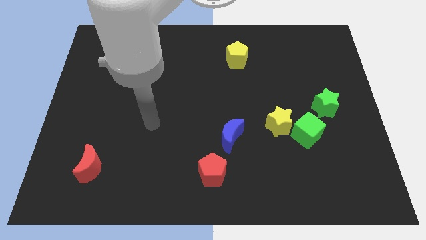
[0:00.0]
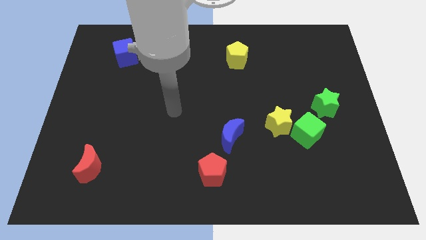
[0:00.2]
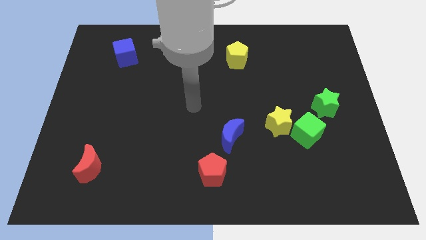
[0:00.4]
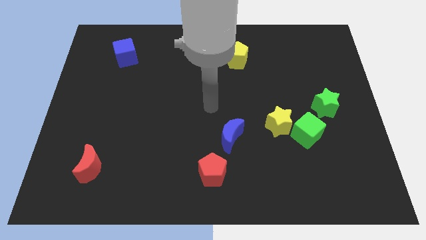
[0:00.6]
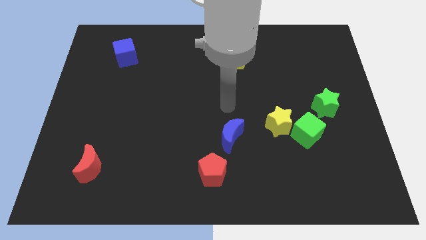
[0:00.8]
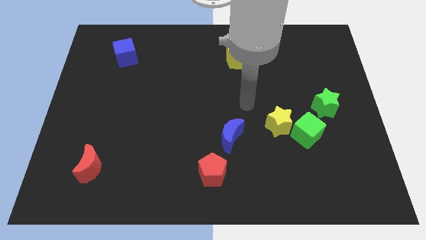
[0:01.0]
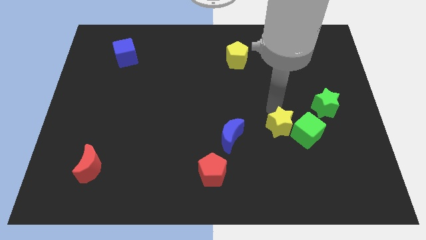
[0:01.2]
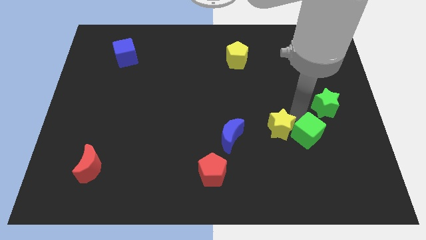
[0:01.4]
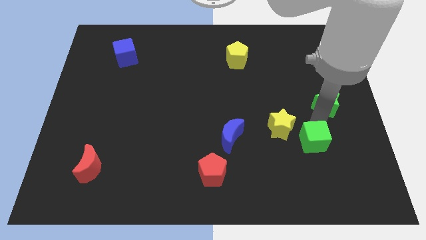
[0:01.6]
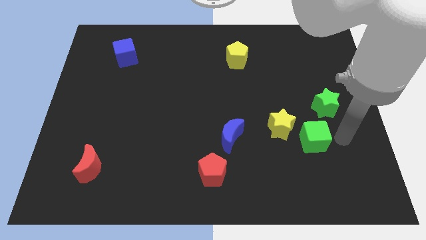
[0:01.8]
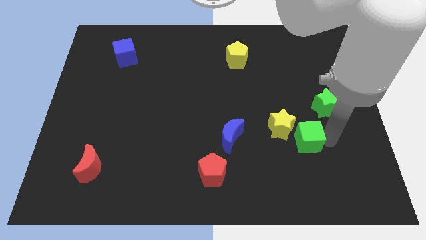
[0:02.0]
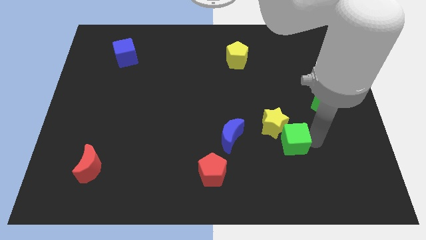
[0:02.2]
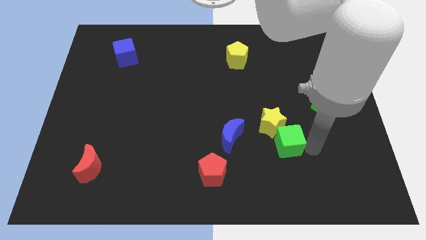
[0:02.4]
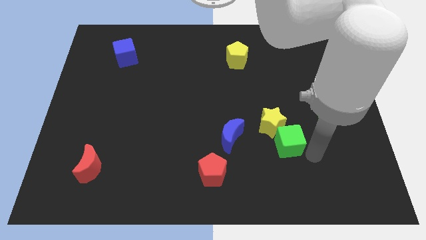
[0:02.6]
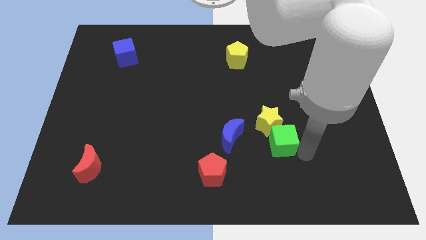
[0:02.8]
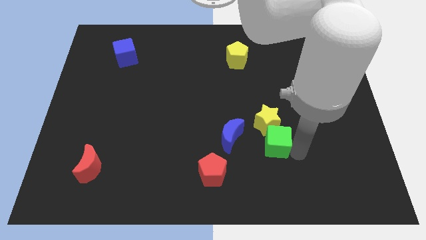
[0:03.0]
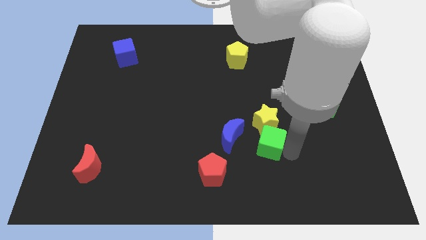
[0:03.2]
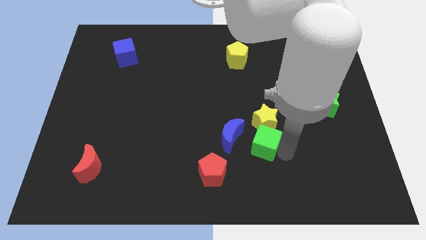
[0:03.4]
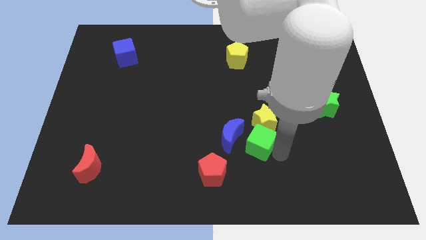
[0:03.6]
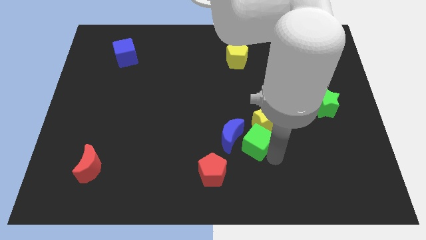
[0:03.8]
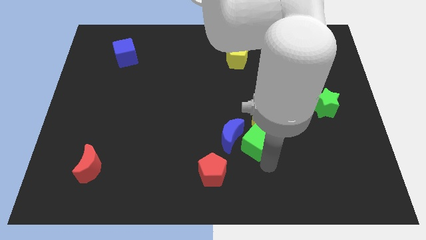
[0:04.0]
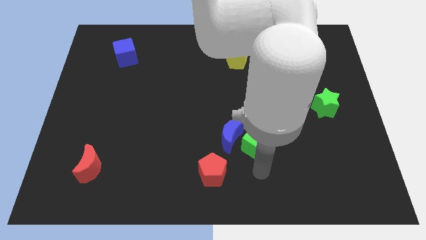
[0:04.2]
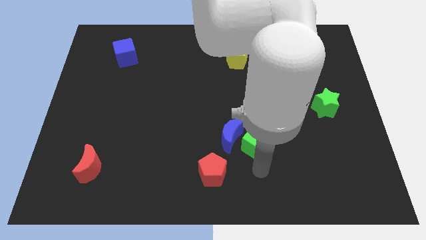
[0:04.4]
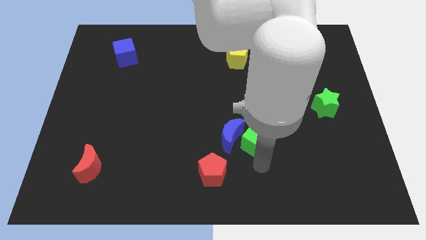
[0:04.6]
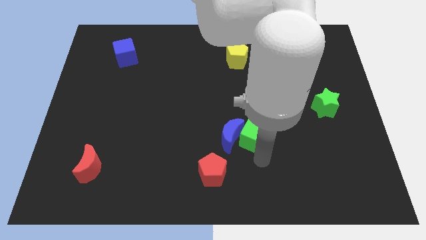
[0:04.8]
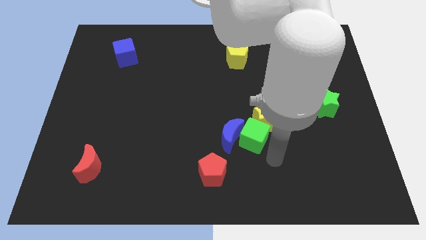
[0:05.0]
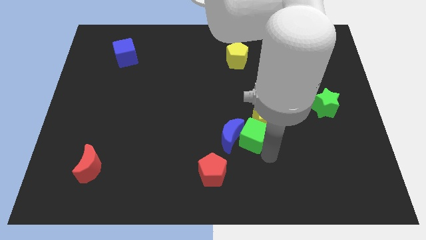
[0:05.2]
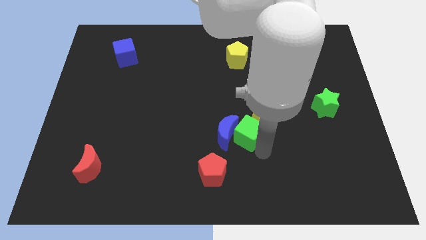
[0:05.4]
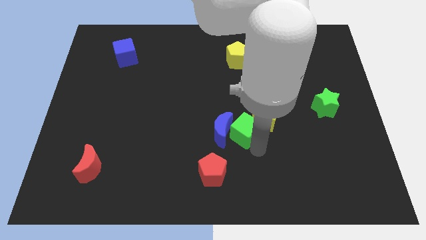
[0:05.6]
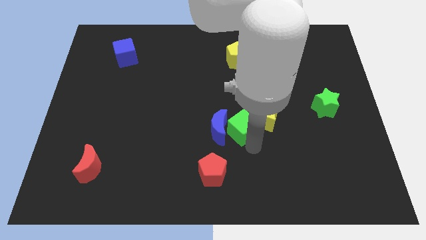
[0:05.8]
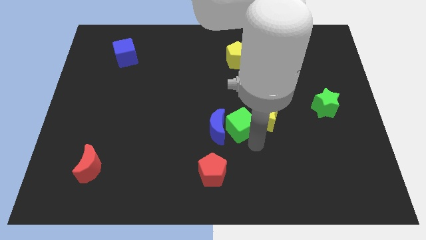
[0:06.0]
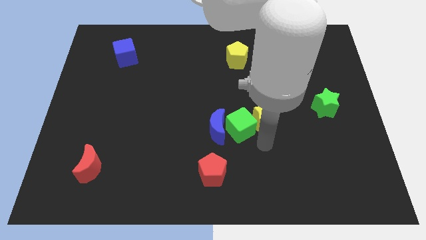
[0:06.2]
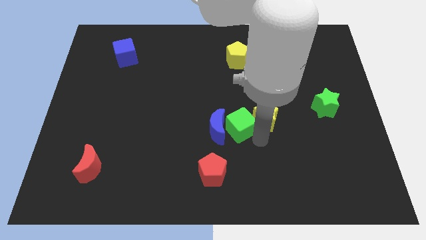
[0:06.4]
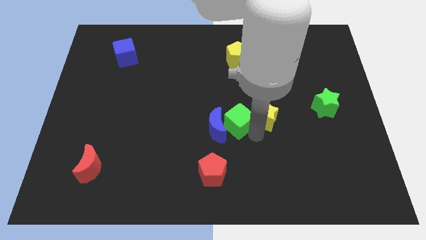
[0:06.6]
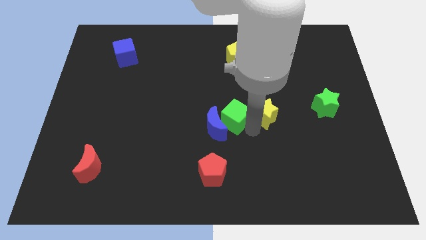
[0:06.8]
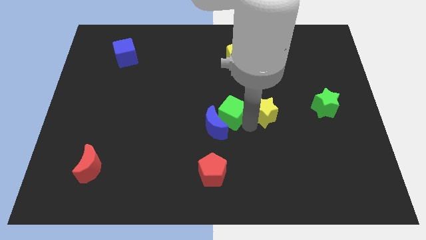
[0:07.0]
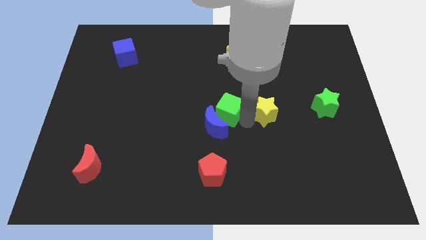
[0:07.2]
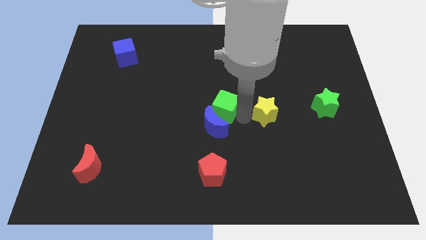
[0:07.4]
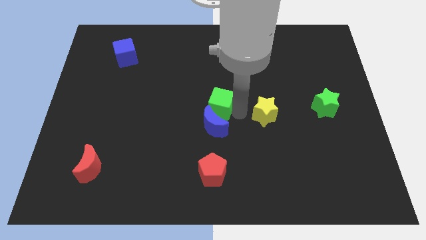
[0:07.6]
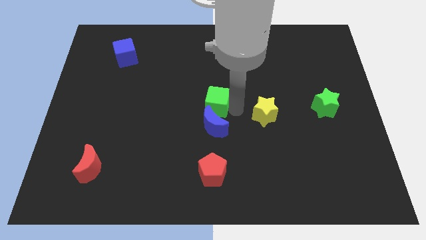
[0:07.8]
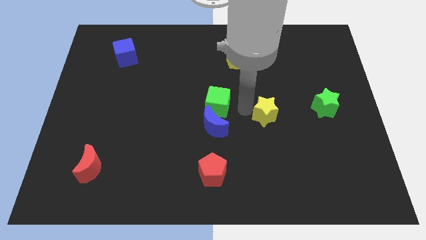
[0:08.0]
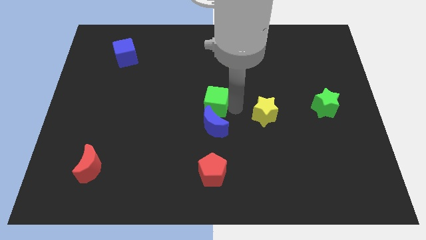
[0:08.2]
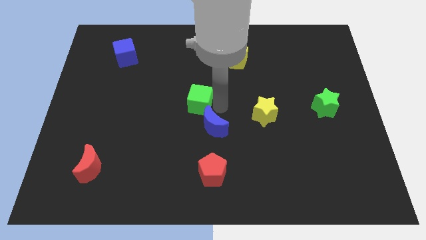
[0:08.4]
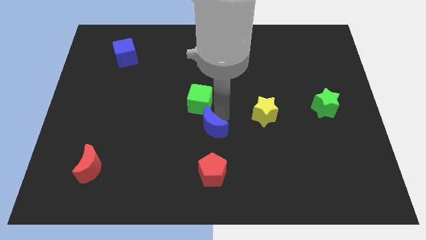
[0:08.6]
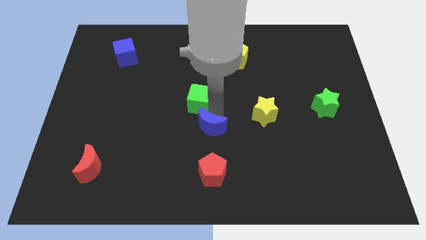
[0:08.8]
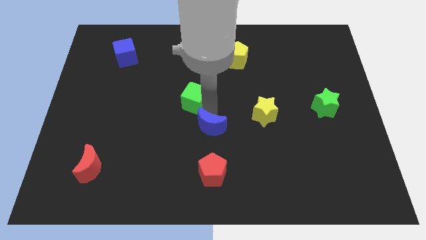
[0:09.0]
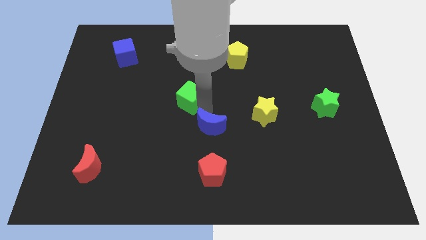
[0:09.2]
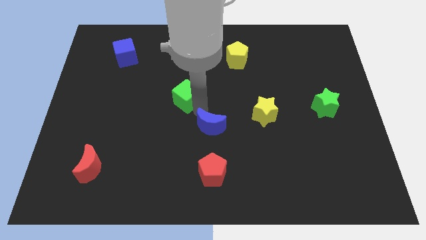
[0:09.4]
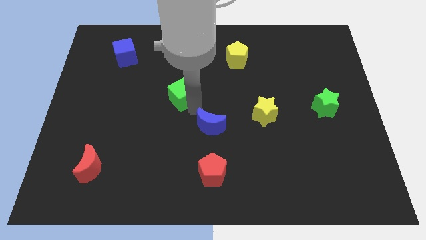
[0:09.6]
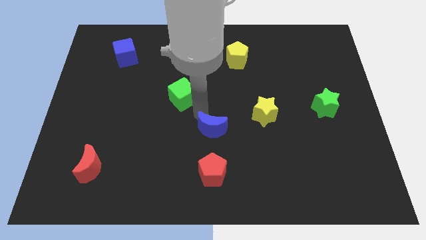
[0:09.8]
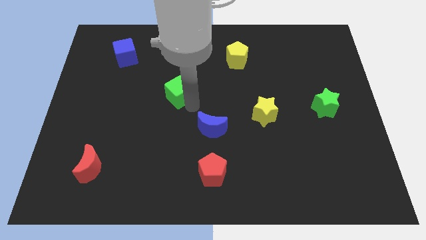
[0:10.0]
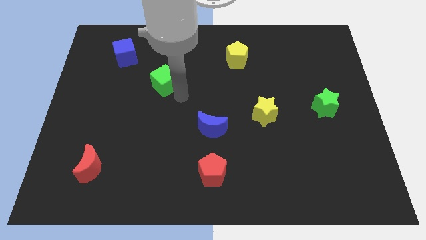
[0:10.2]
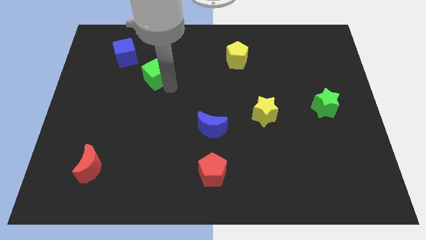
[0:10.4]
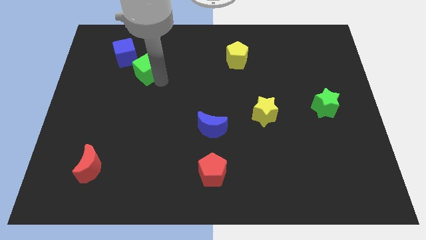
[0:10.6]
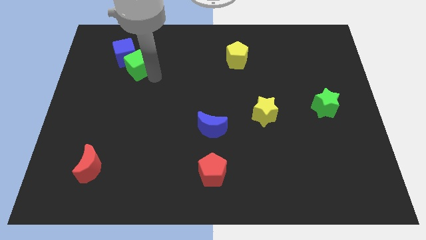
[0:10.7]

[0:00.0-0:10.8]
move the green cube close to the blue cube

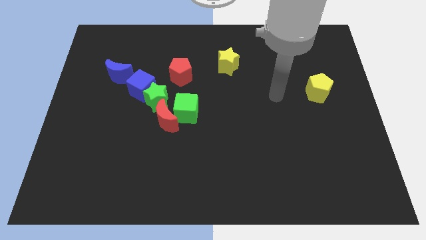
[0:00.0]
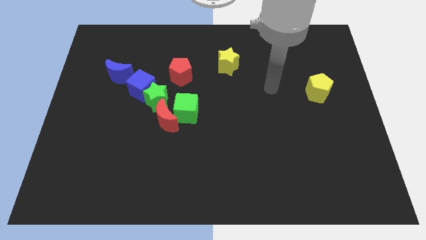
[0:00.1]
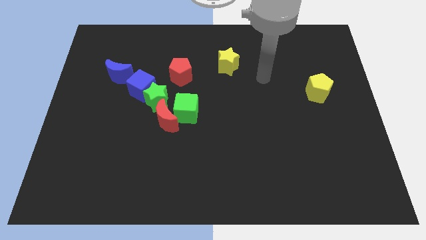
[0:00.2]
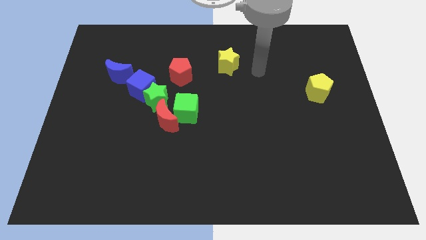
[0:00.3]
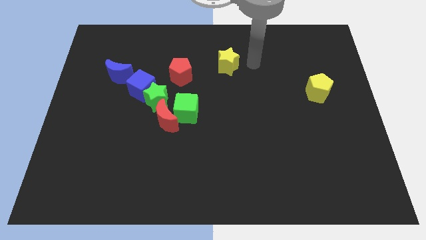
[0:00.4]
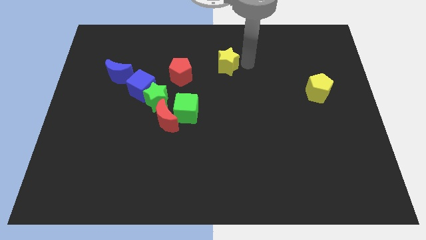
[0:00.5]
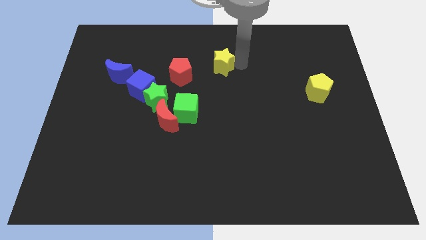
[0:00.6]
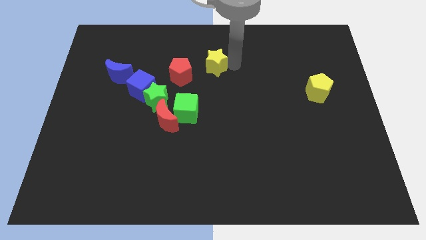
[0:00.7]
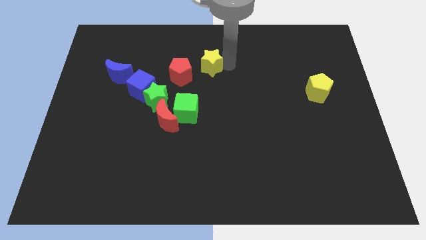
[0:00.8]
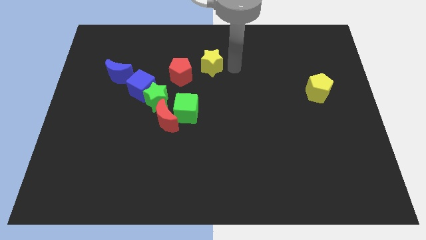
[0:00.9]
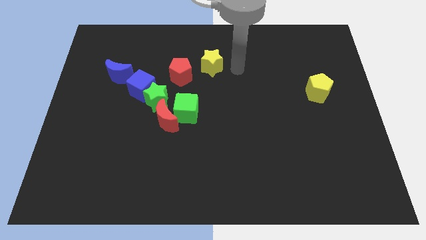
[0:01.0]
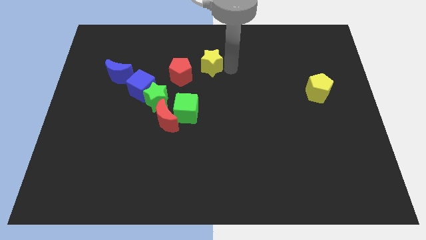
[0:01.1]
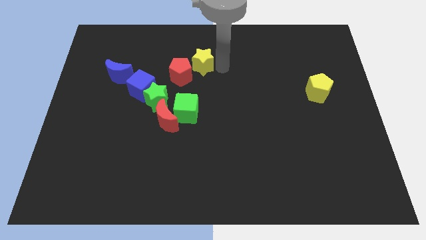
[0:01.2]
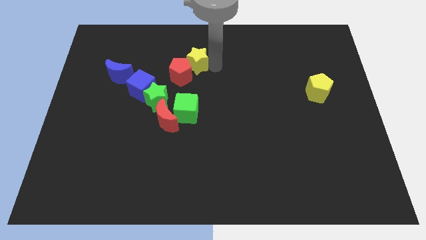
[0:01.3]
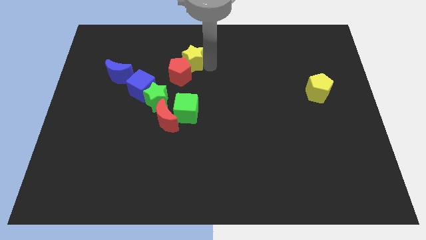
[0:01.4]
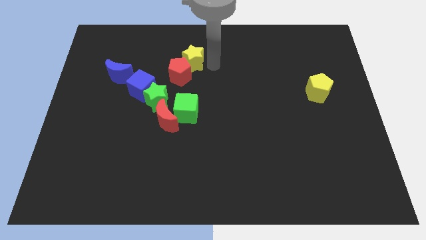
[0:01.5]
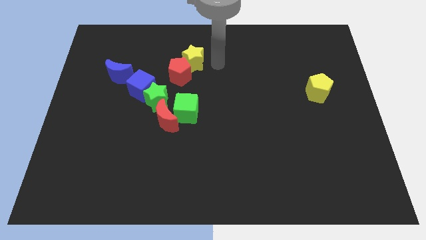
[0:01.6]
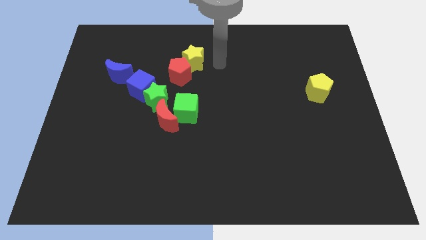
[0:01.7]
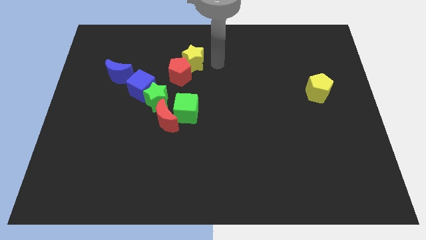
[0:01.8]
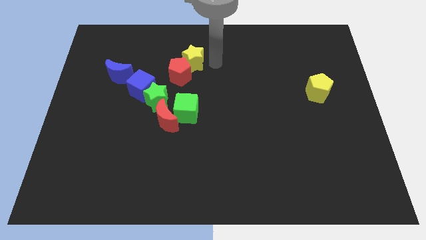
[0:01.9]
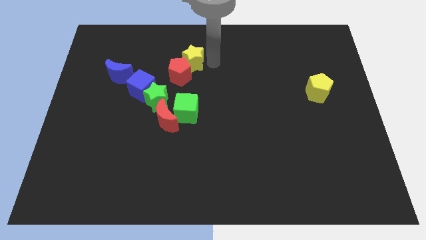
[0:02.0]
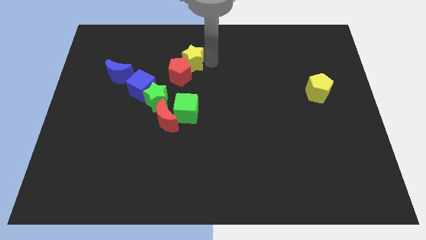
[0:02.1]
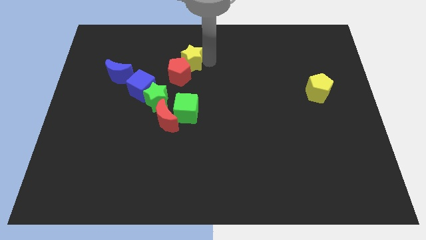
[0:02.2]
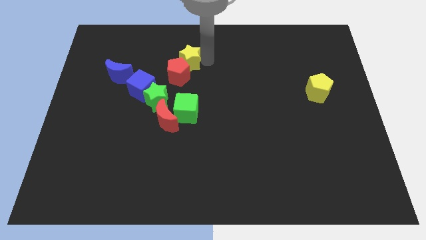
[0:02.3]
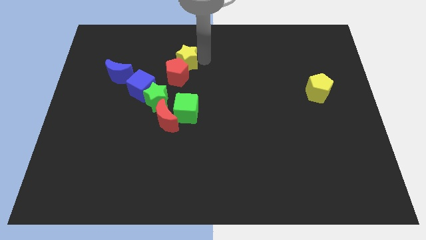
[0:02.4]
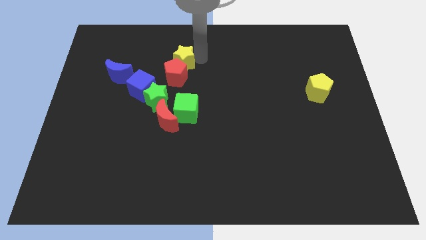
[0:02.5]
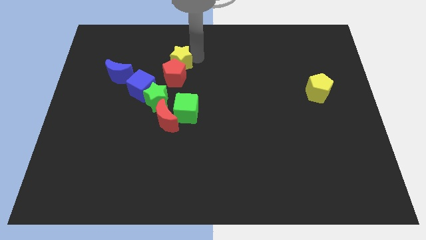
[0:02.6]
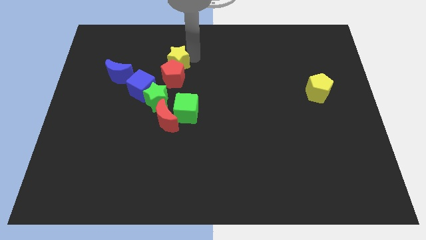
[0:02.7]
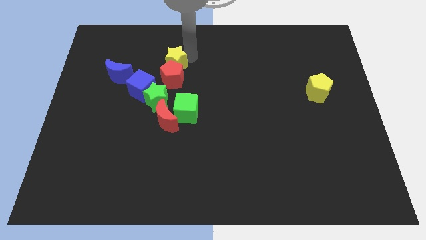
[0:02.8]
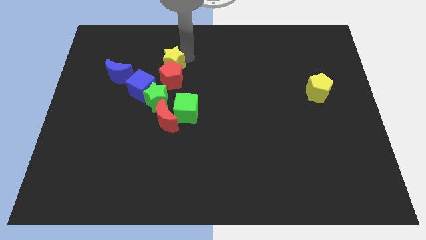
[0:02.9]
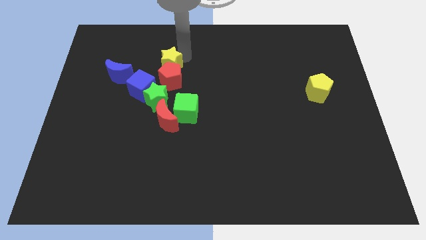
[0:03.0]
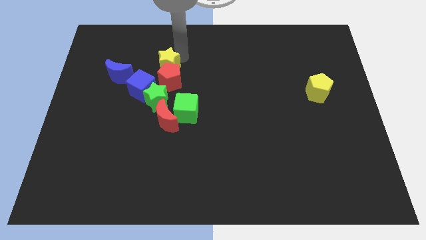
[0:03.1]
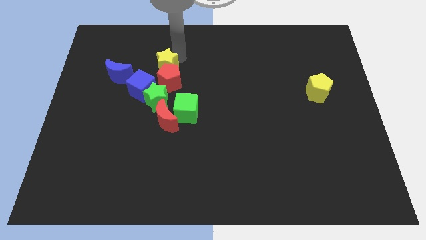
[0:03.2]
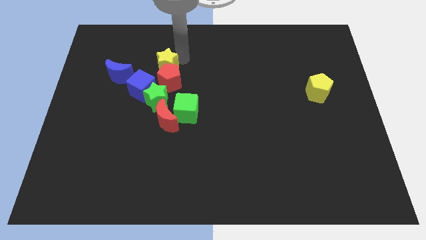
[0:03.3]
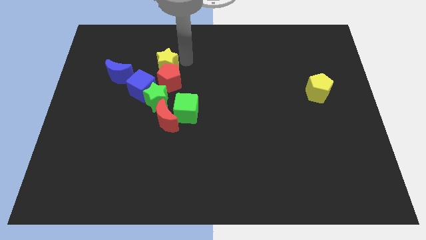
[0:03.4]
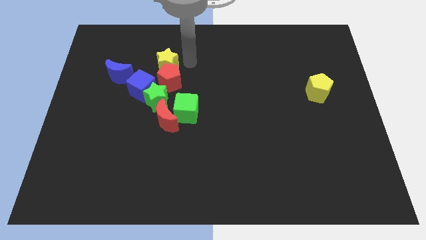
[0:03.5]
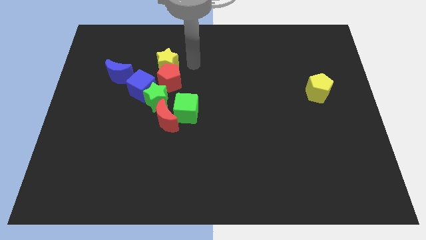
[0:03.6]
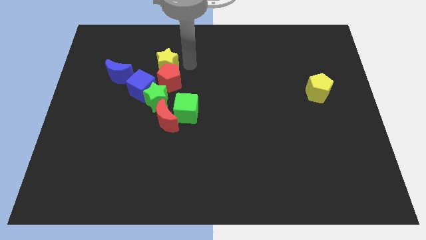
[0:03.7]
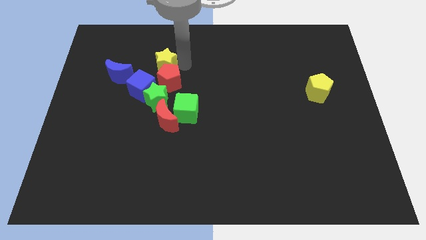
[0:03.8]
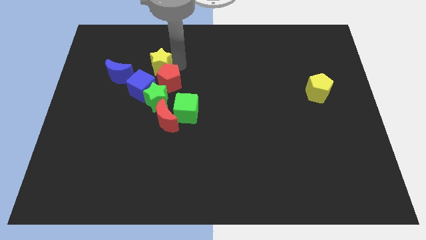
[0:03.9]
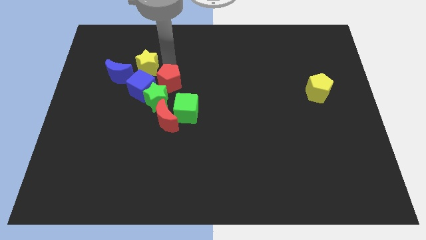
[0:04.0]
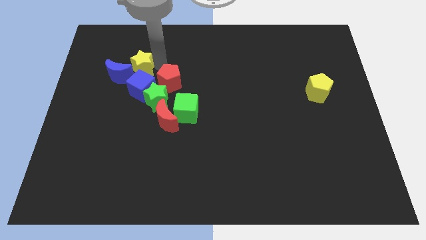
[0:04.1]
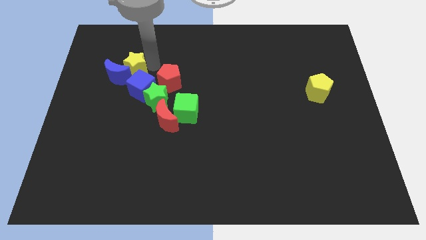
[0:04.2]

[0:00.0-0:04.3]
move the yellow star to the blue moon
